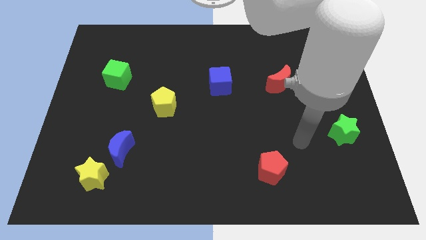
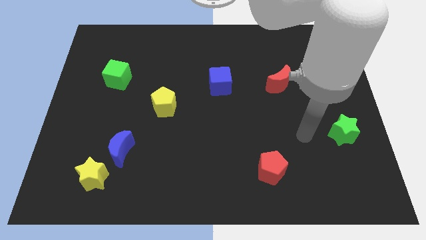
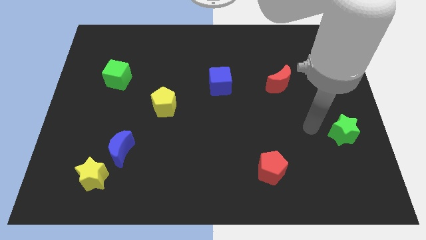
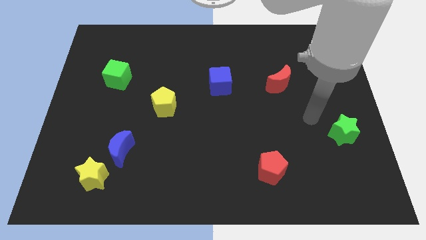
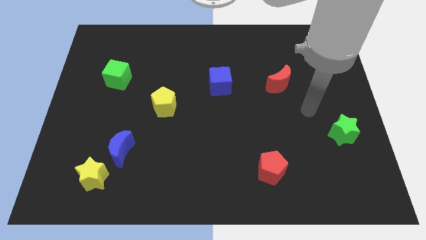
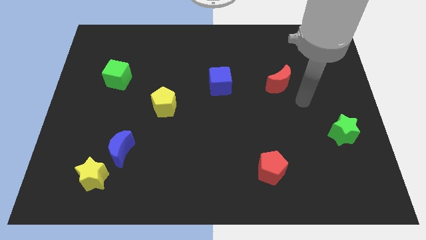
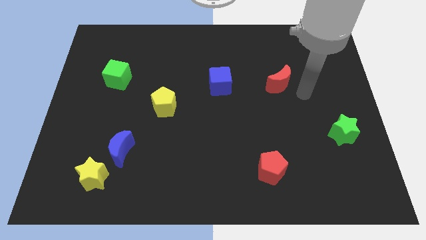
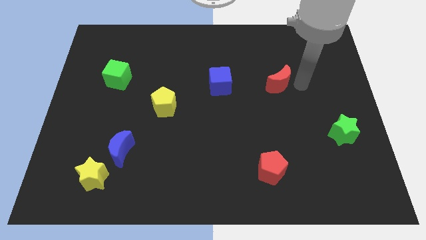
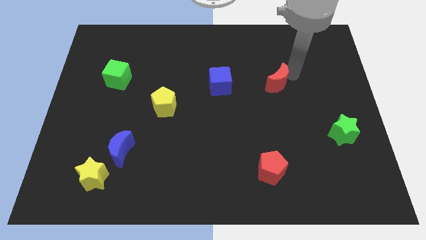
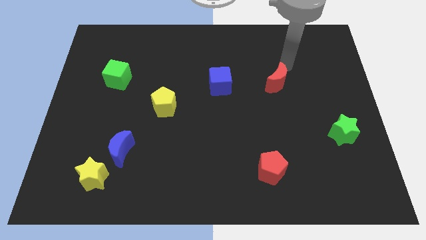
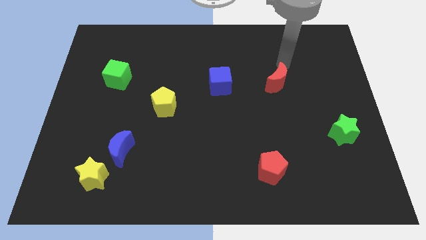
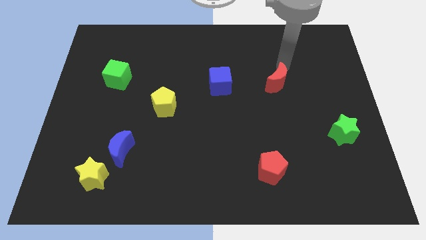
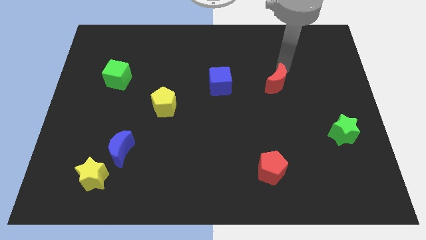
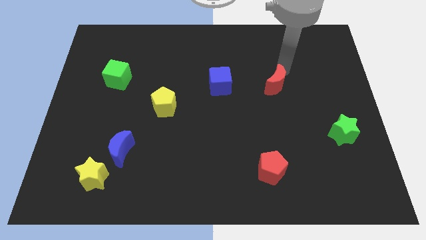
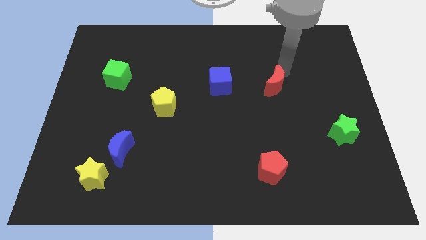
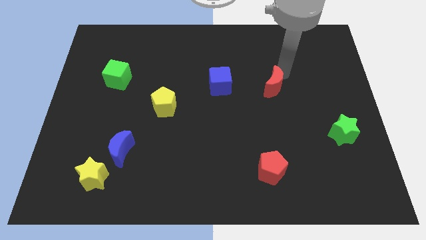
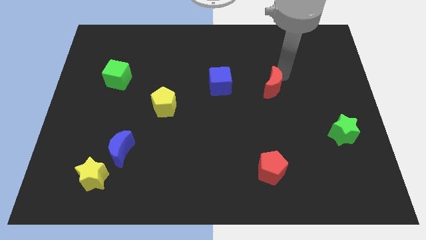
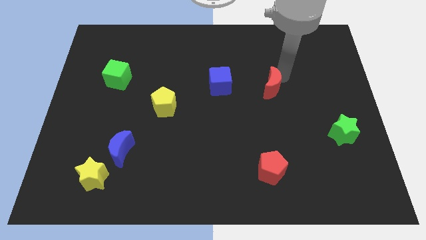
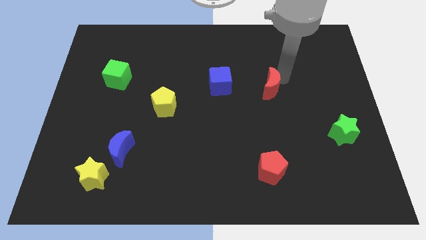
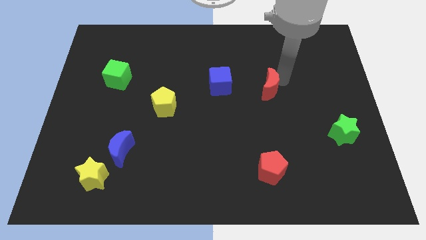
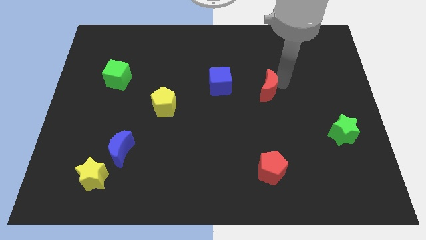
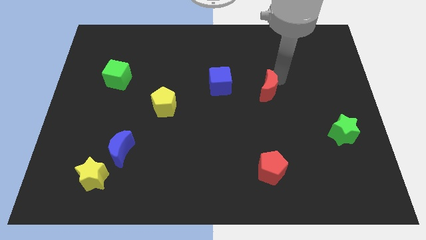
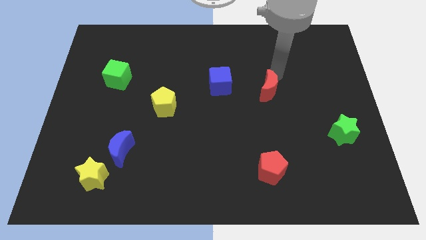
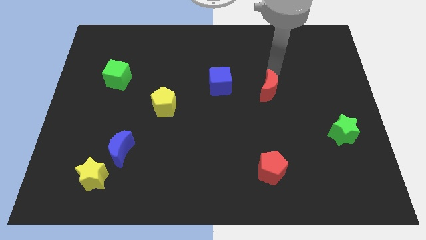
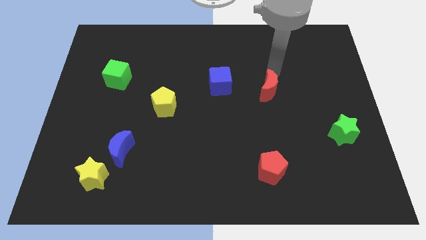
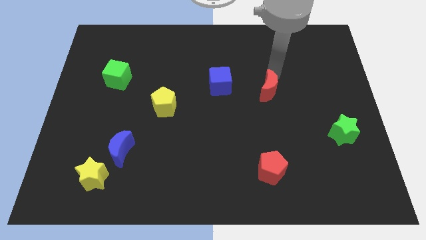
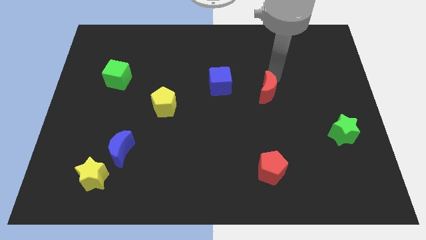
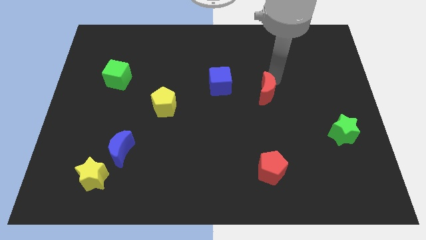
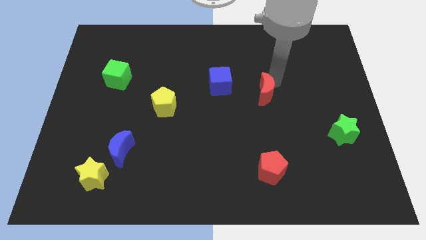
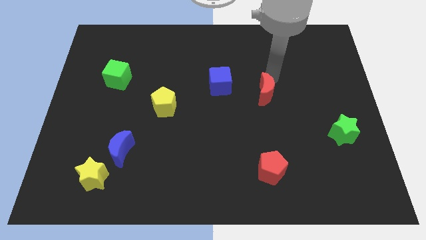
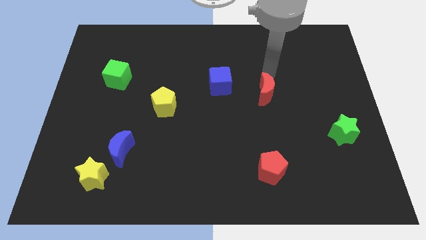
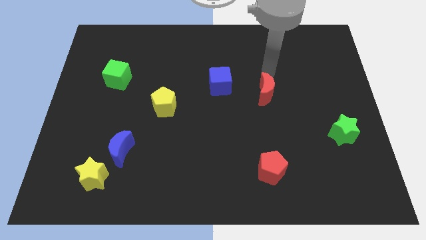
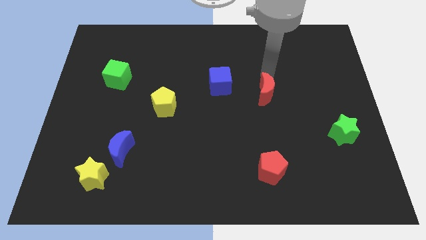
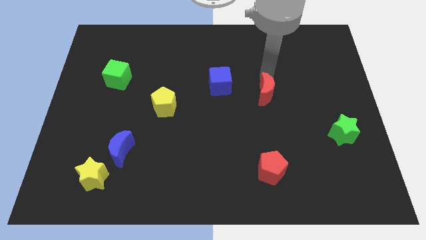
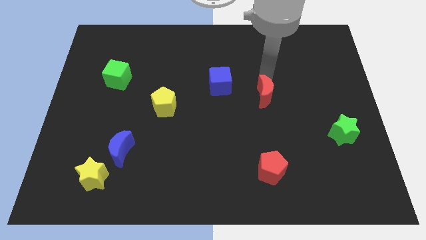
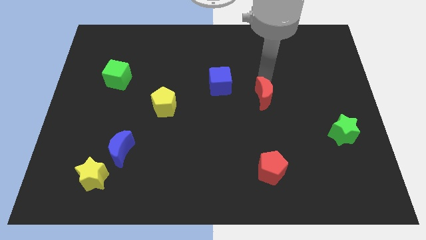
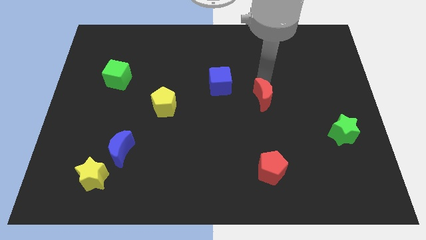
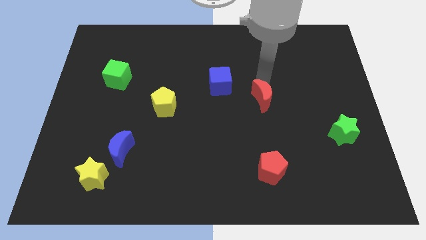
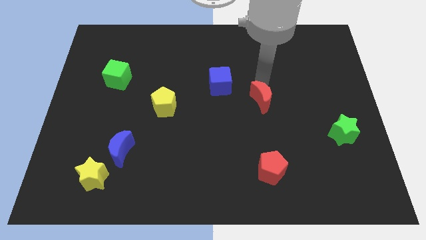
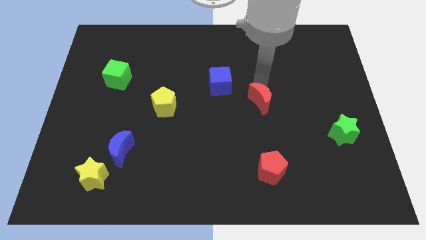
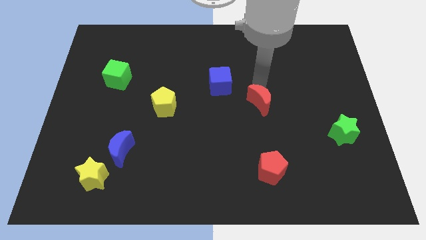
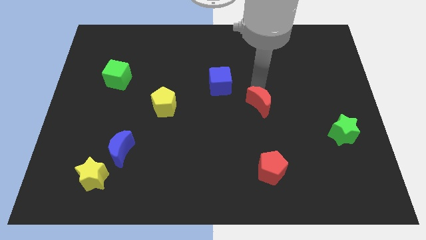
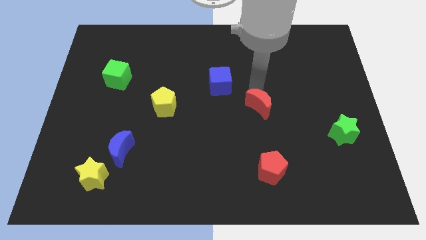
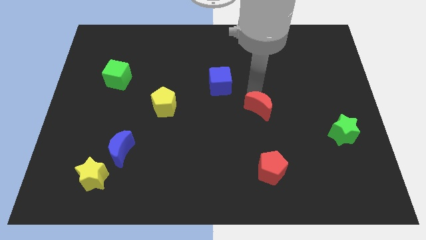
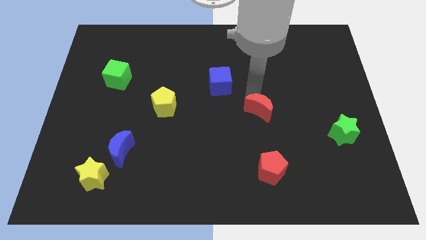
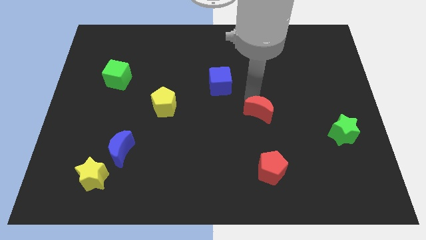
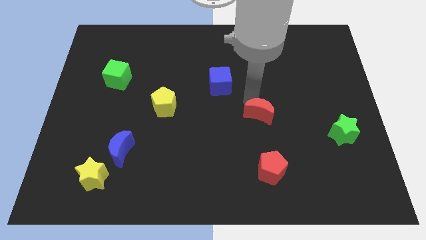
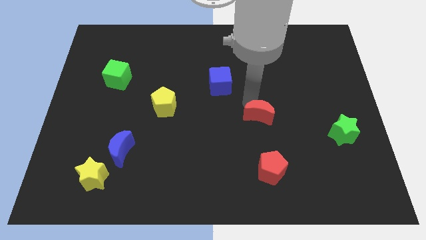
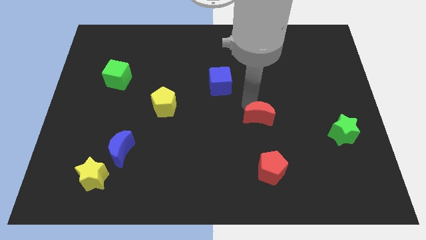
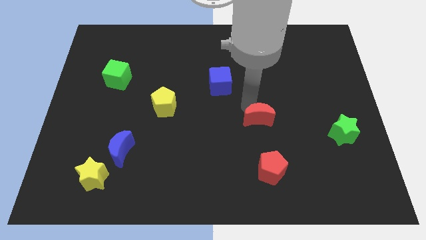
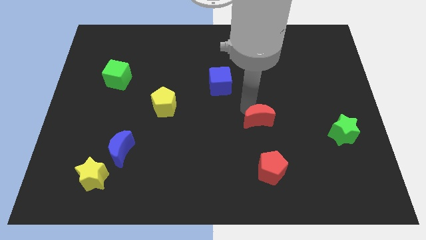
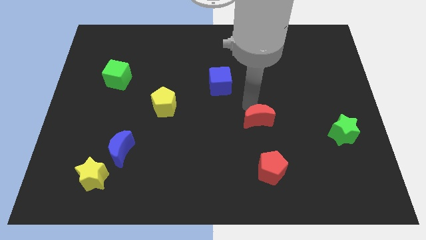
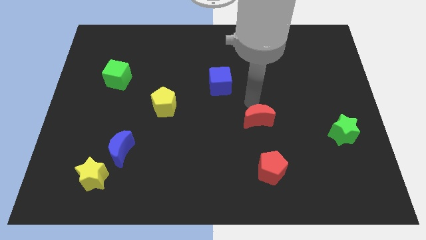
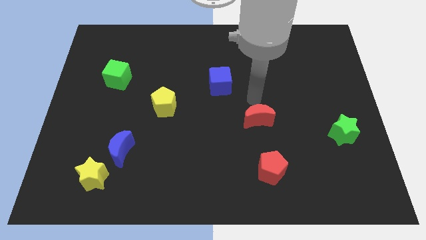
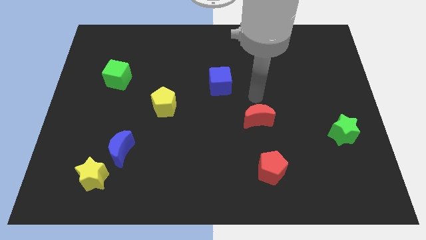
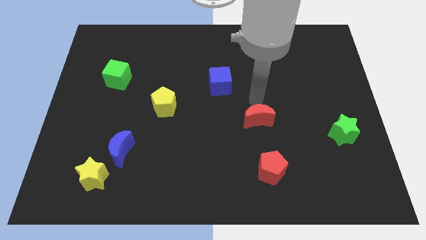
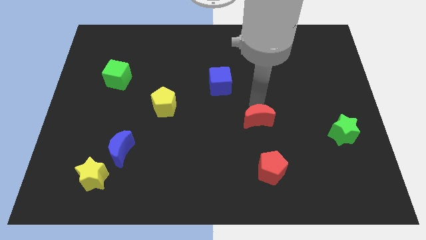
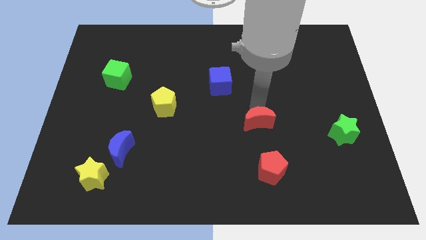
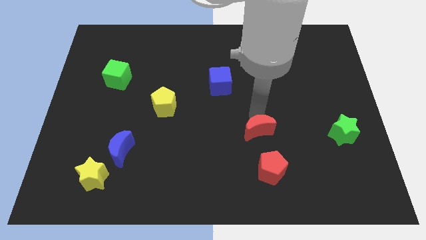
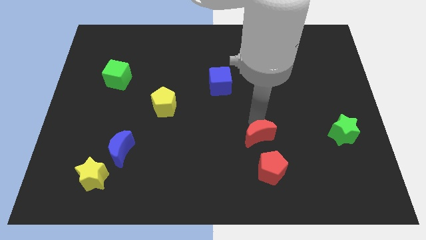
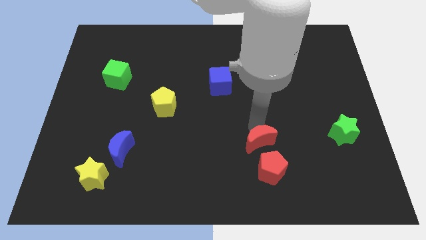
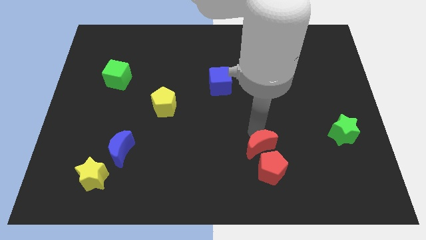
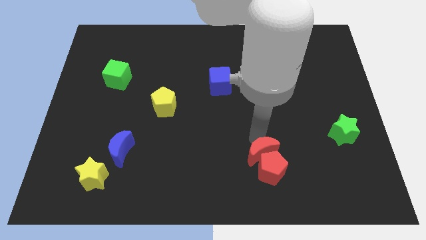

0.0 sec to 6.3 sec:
push the red moon towards the red pentagon

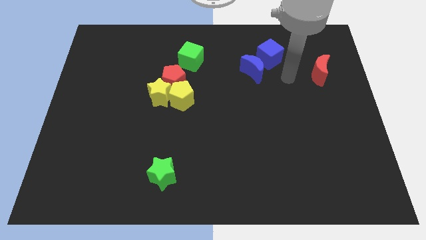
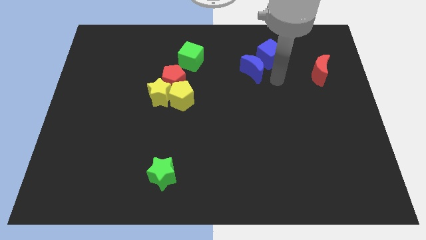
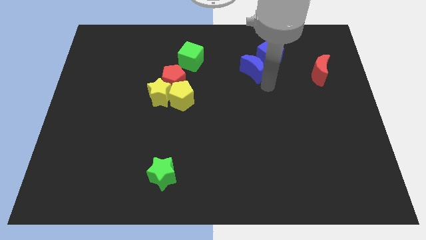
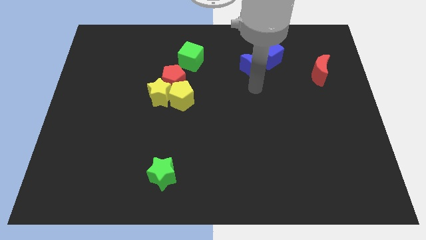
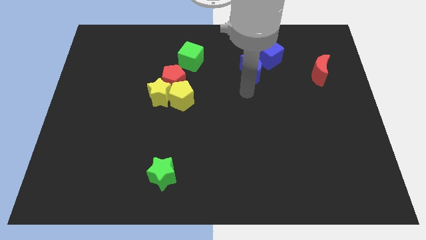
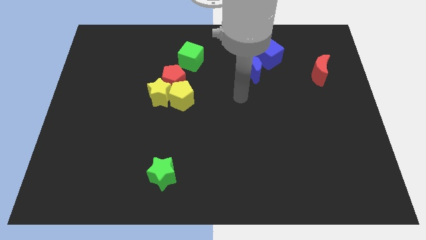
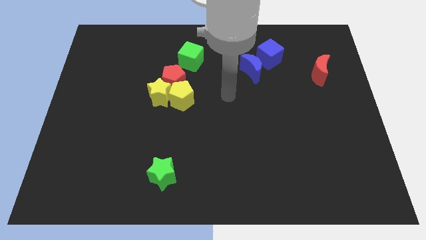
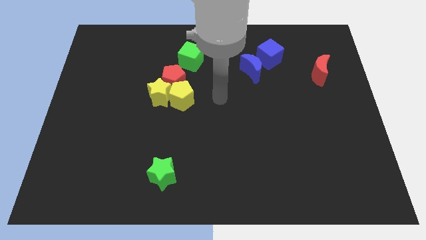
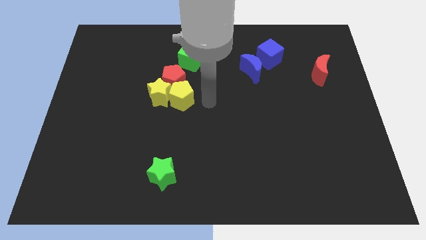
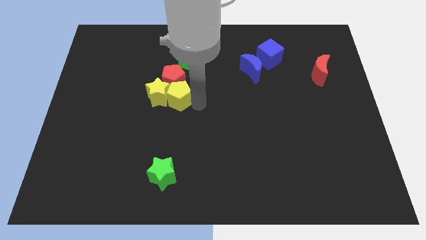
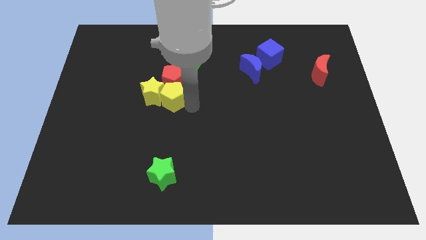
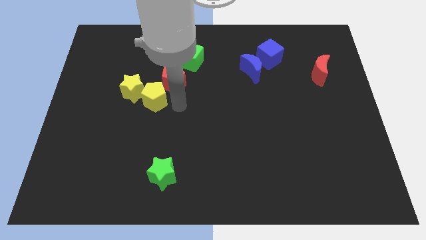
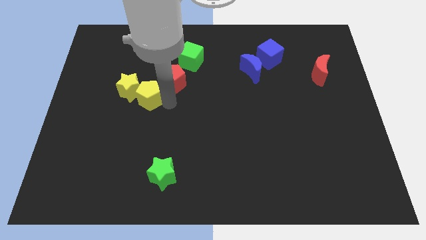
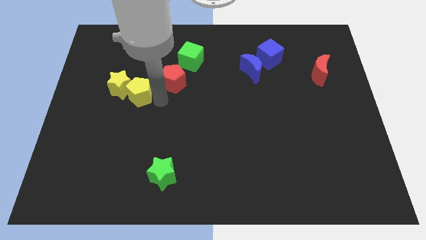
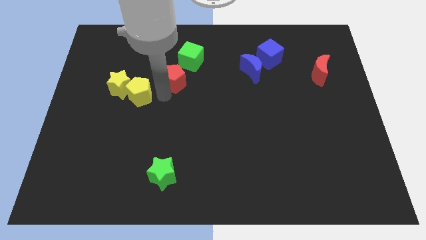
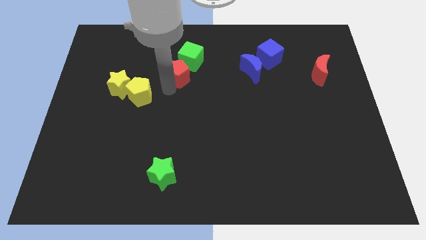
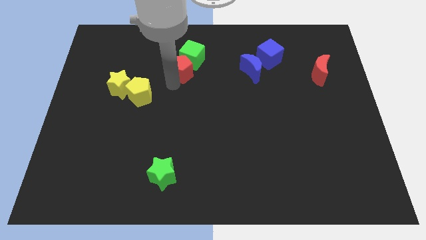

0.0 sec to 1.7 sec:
push the red pentagon next to the green cube
